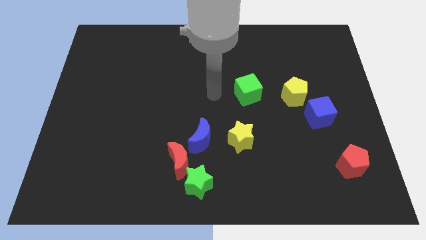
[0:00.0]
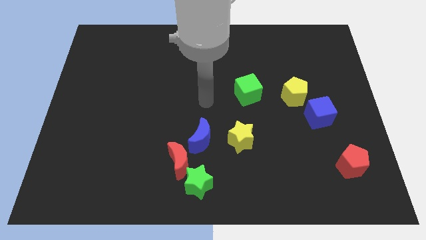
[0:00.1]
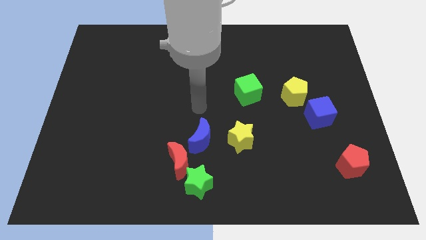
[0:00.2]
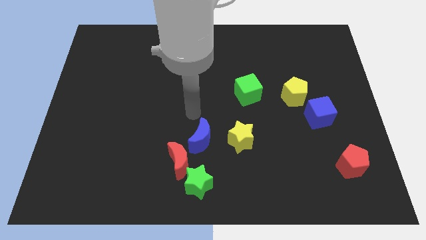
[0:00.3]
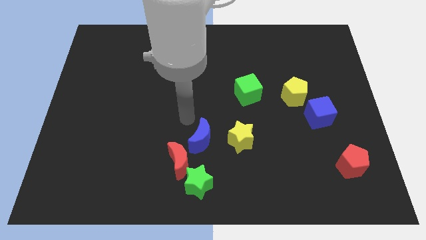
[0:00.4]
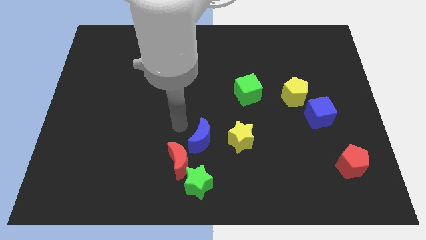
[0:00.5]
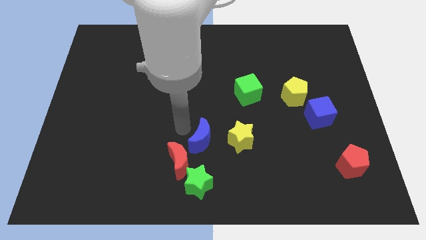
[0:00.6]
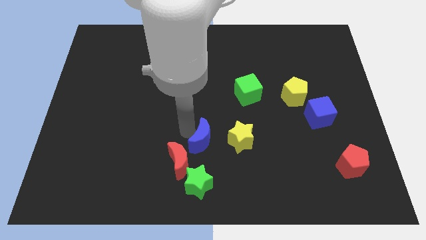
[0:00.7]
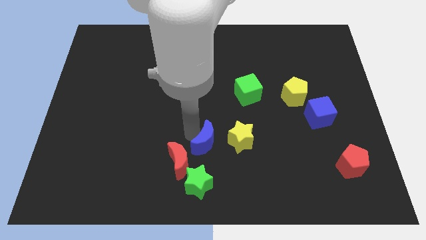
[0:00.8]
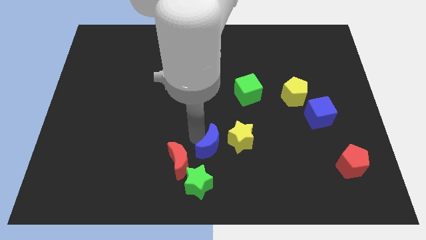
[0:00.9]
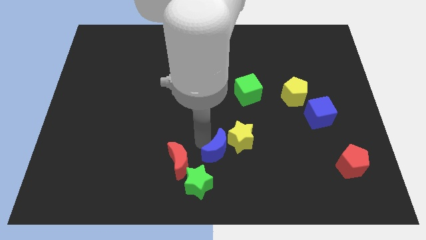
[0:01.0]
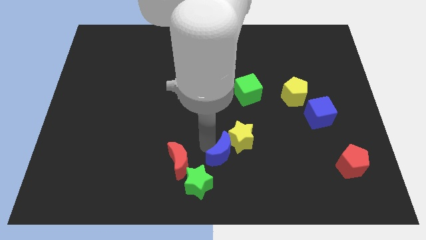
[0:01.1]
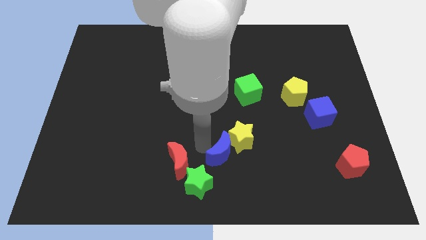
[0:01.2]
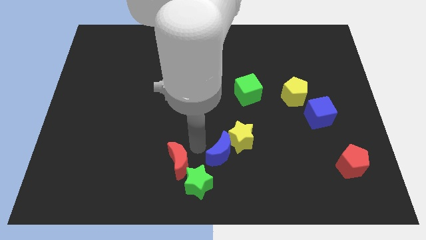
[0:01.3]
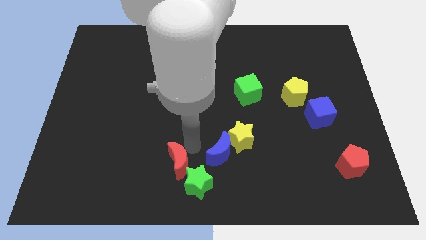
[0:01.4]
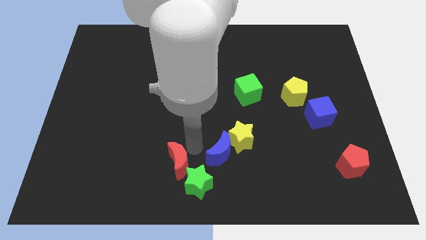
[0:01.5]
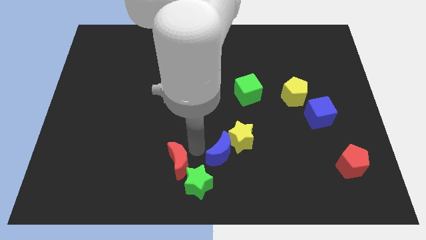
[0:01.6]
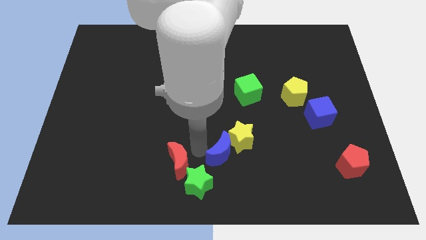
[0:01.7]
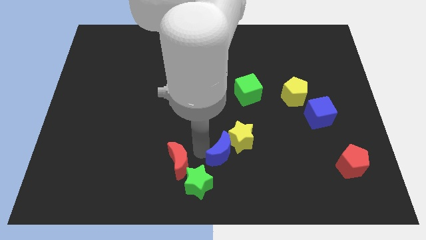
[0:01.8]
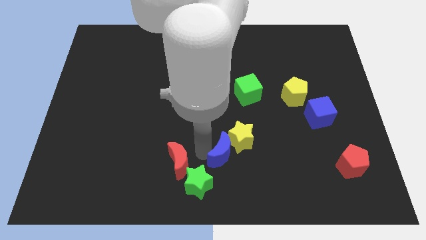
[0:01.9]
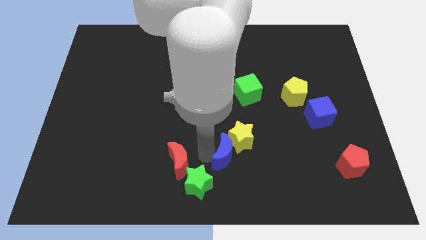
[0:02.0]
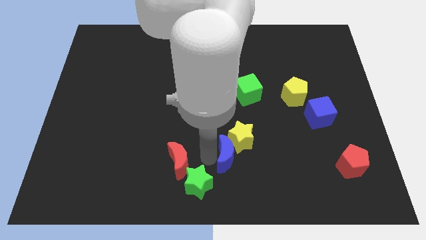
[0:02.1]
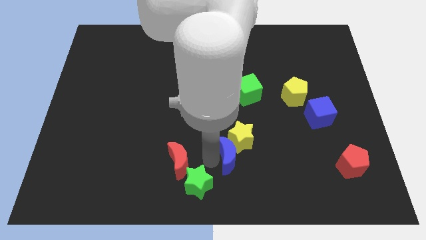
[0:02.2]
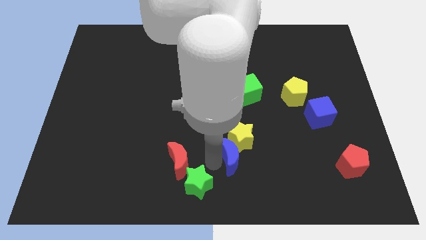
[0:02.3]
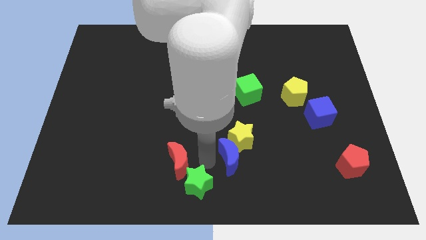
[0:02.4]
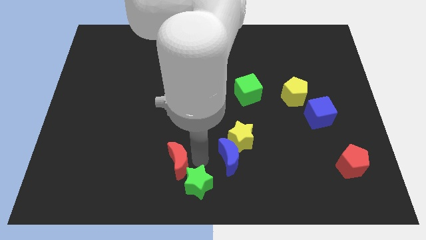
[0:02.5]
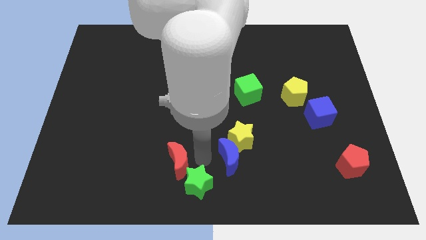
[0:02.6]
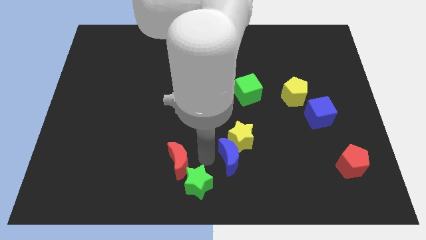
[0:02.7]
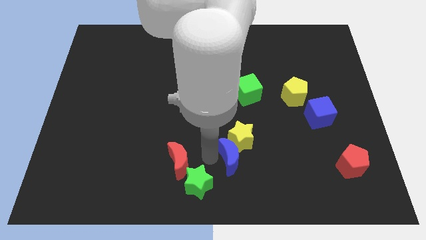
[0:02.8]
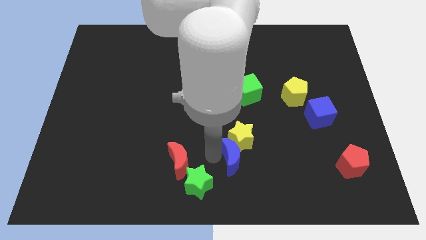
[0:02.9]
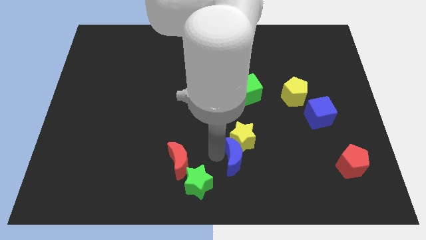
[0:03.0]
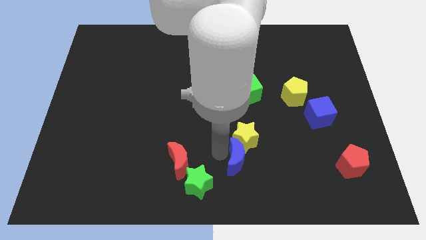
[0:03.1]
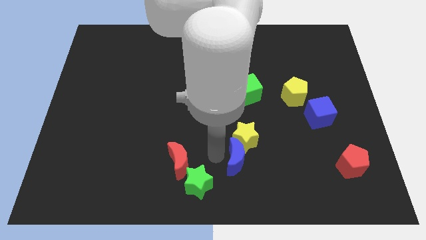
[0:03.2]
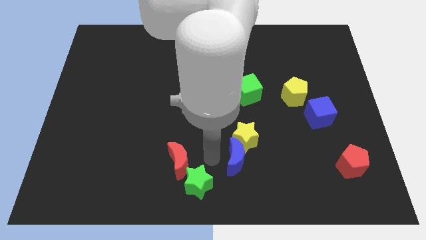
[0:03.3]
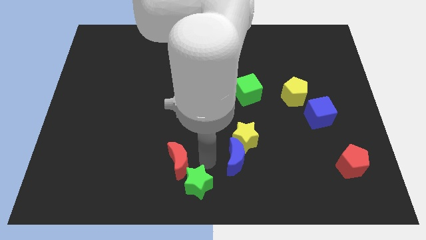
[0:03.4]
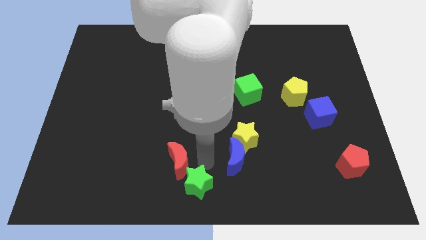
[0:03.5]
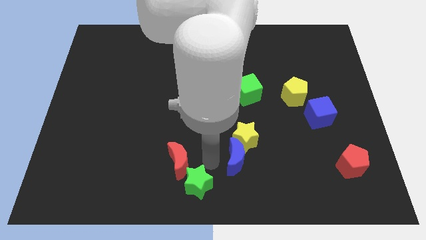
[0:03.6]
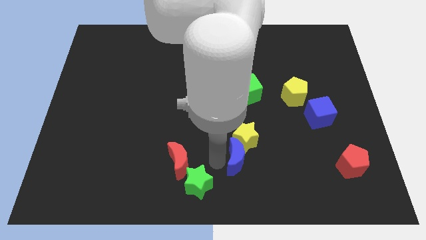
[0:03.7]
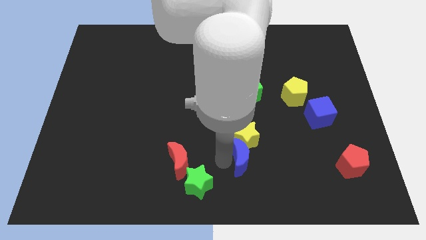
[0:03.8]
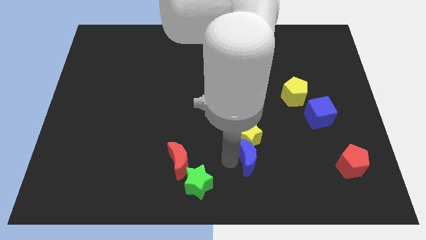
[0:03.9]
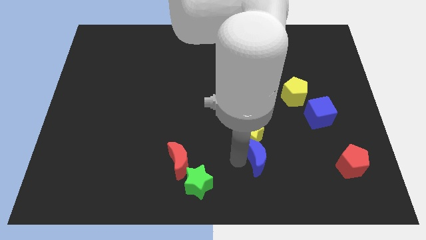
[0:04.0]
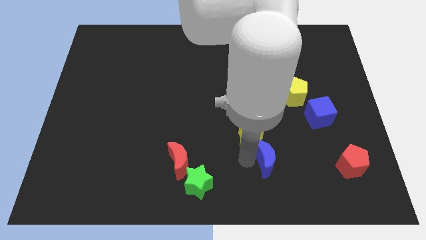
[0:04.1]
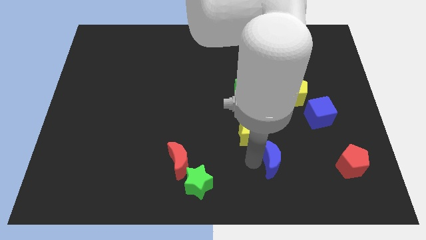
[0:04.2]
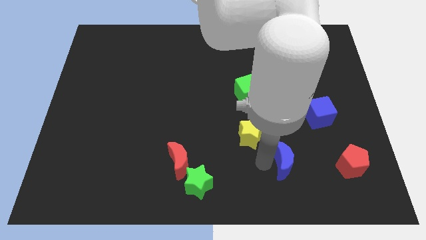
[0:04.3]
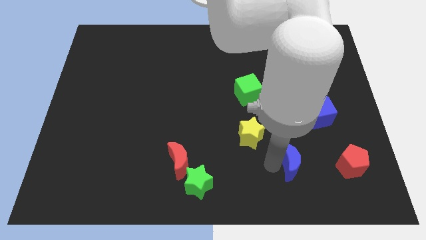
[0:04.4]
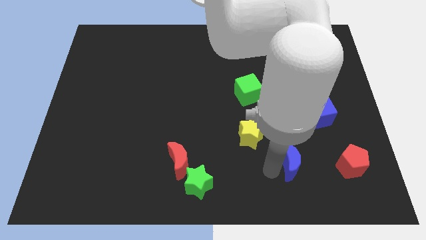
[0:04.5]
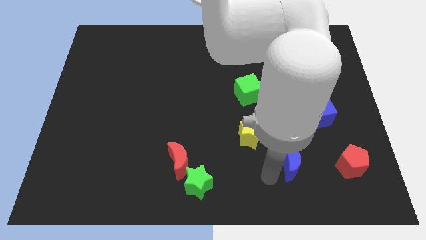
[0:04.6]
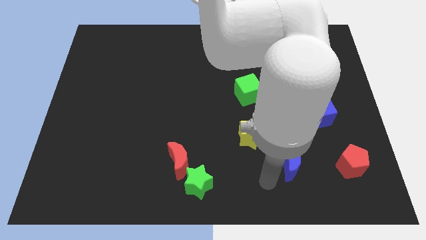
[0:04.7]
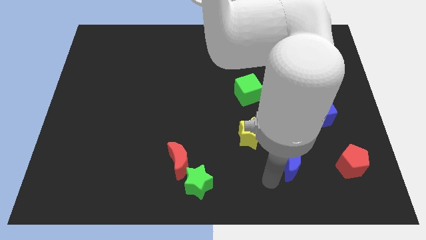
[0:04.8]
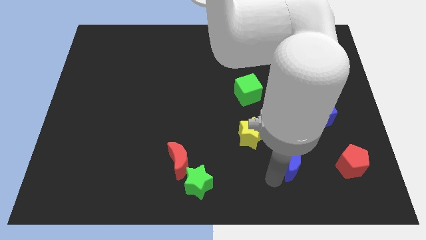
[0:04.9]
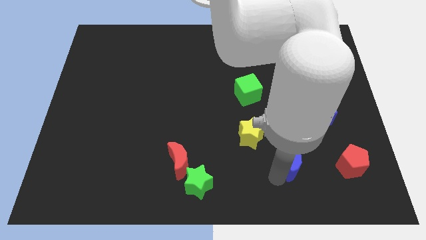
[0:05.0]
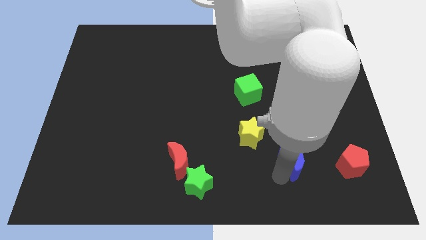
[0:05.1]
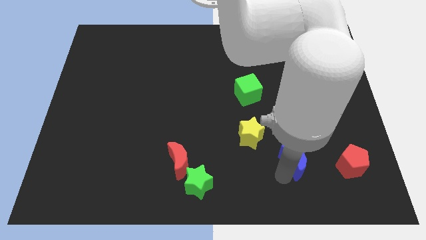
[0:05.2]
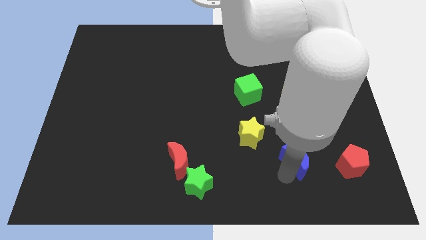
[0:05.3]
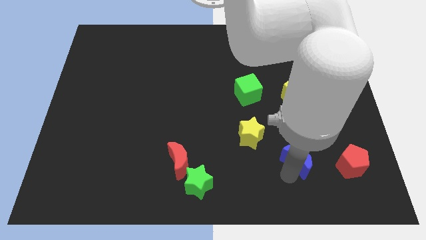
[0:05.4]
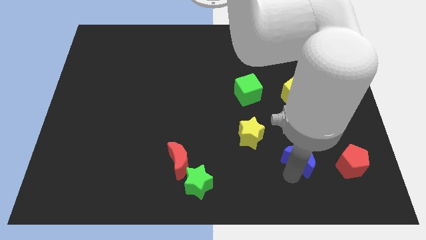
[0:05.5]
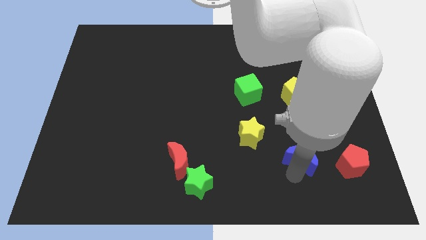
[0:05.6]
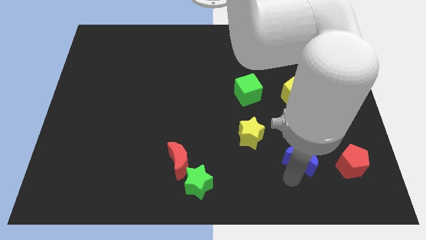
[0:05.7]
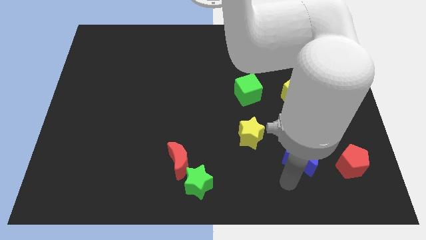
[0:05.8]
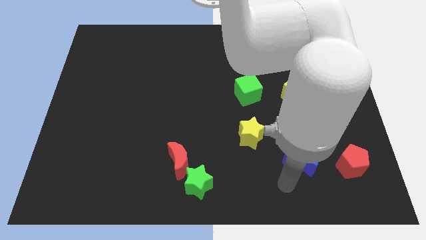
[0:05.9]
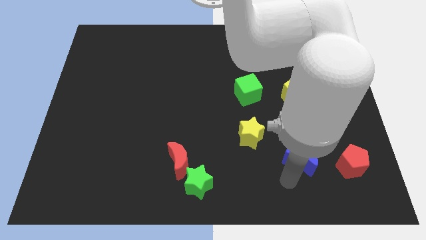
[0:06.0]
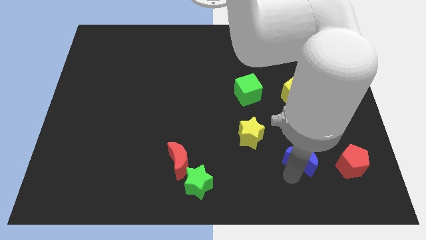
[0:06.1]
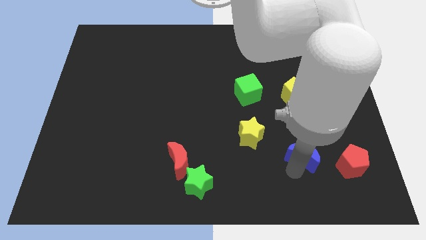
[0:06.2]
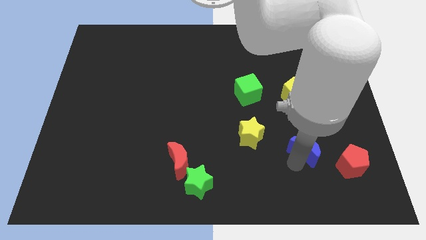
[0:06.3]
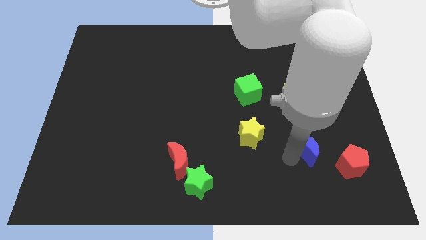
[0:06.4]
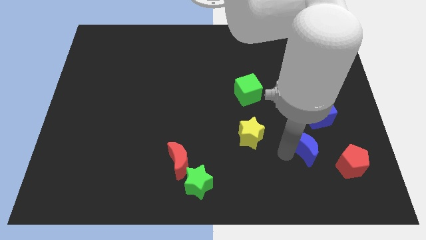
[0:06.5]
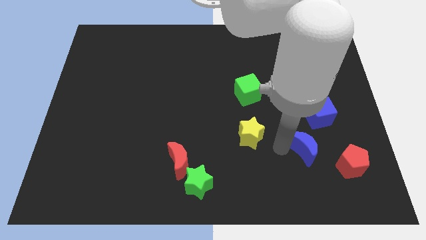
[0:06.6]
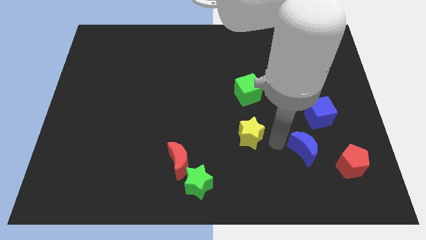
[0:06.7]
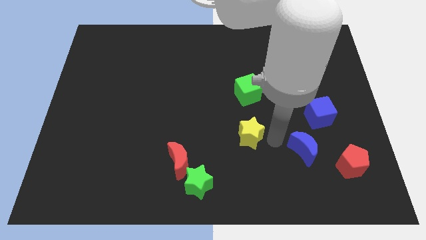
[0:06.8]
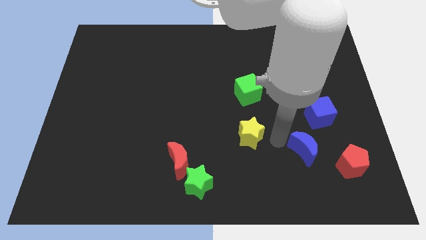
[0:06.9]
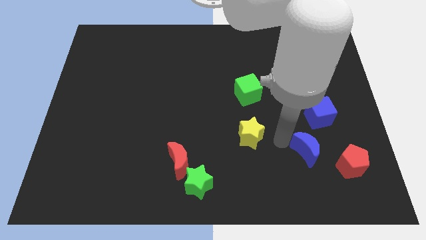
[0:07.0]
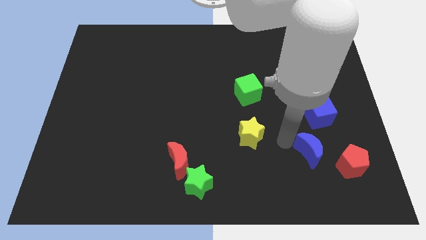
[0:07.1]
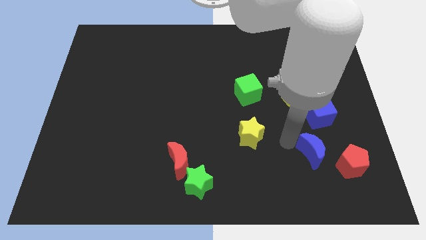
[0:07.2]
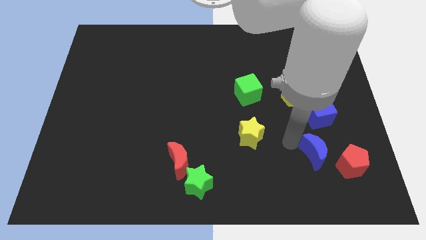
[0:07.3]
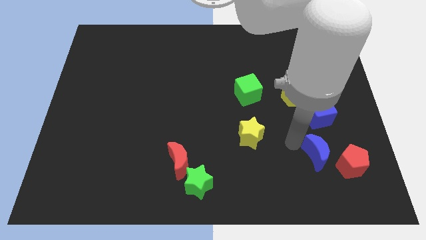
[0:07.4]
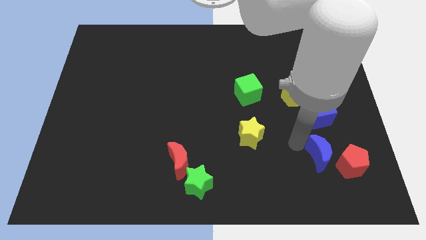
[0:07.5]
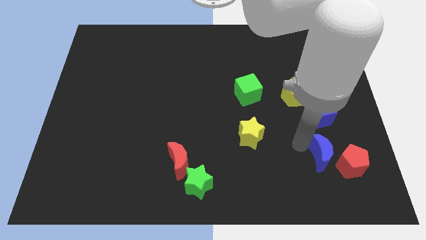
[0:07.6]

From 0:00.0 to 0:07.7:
push the blue moon close to the red pentagon
